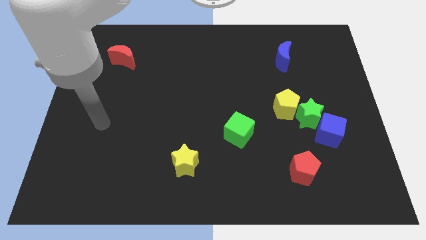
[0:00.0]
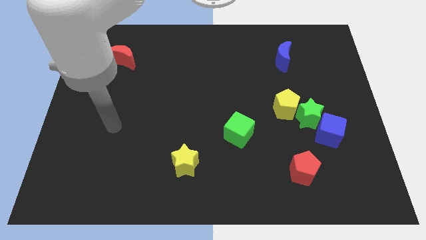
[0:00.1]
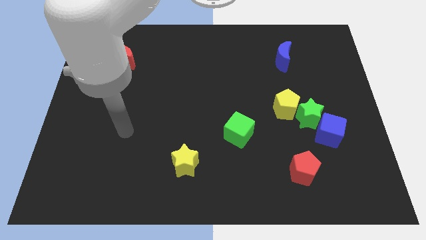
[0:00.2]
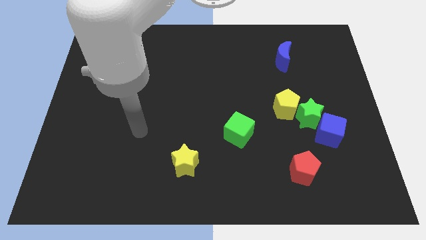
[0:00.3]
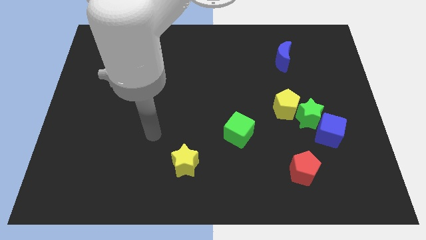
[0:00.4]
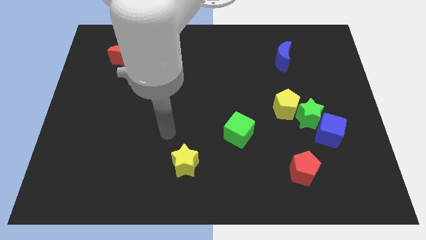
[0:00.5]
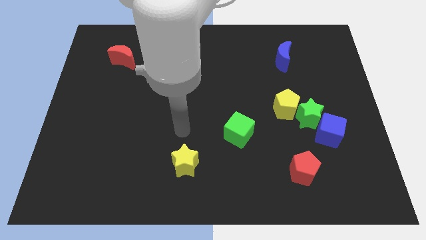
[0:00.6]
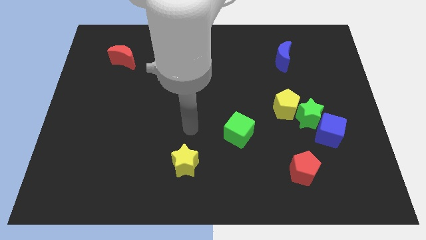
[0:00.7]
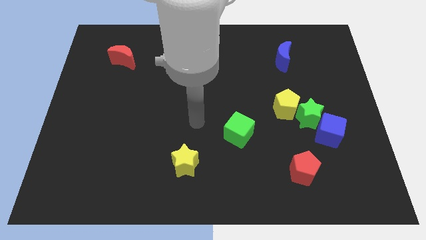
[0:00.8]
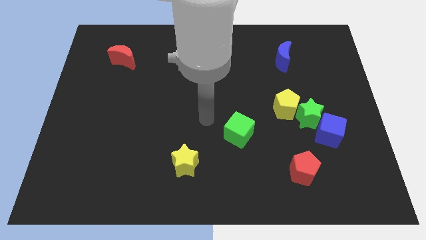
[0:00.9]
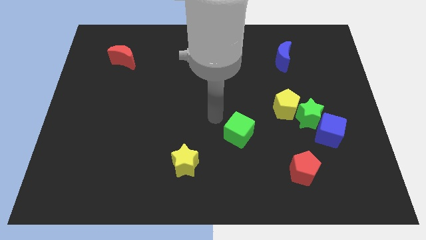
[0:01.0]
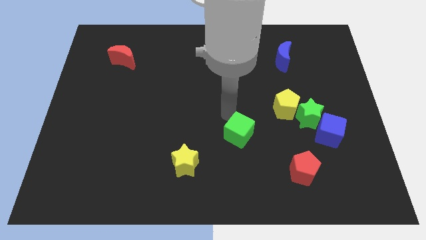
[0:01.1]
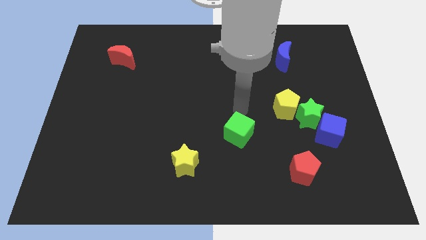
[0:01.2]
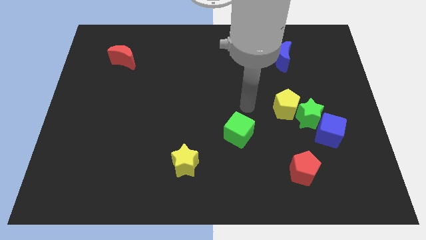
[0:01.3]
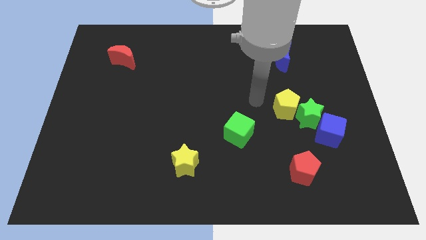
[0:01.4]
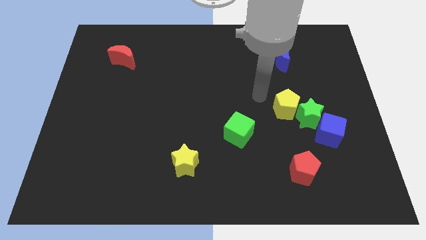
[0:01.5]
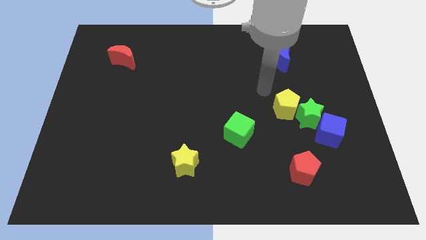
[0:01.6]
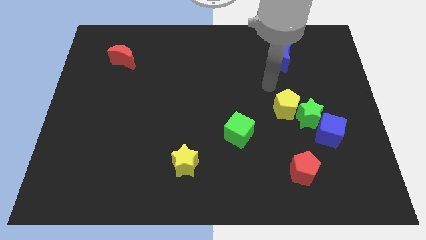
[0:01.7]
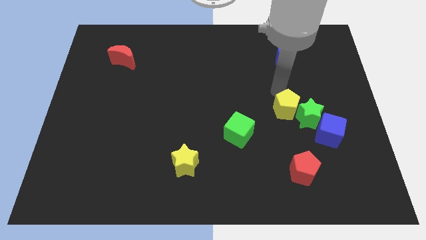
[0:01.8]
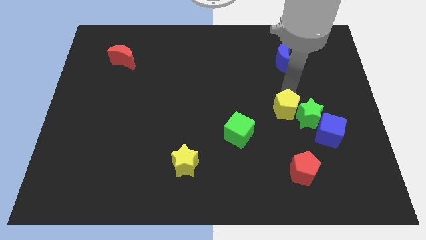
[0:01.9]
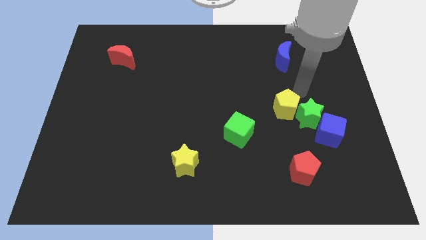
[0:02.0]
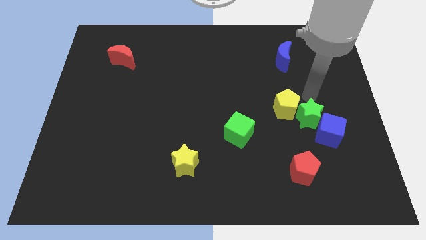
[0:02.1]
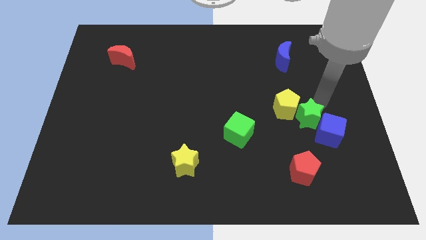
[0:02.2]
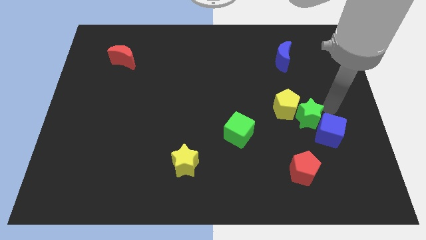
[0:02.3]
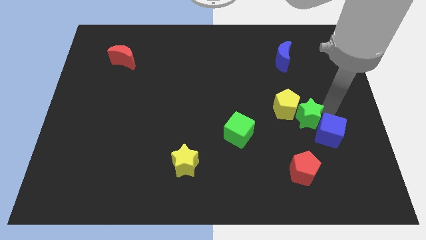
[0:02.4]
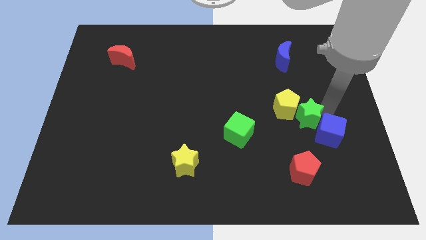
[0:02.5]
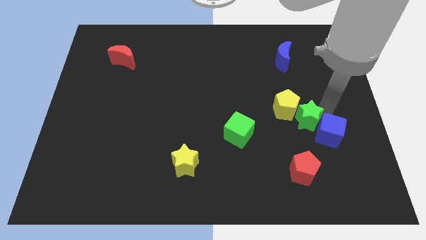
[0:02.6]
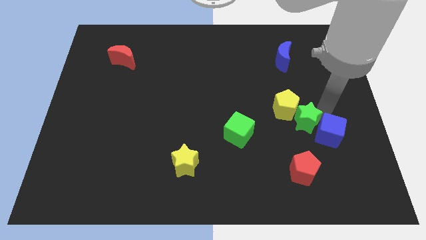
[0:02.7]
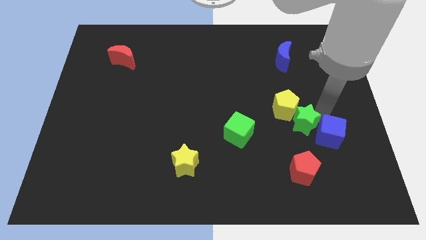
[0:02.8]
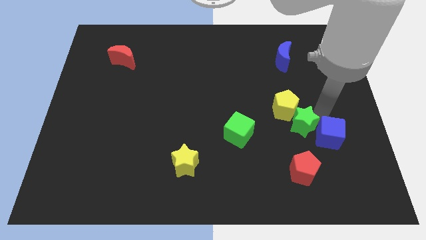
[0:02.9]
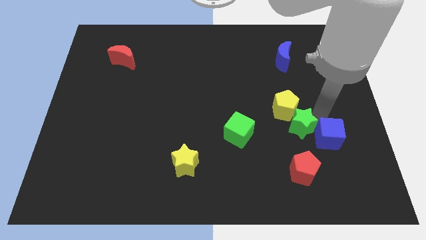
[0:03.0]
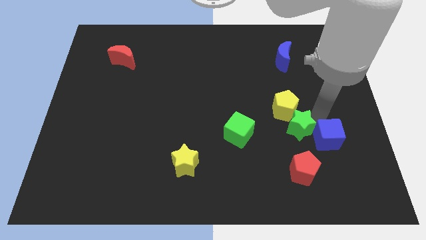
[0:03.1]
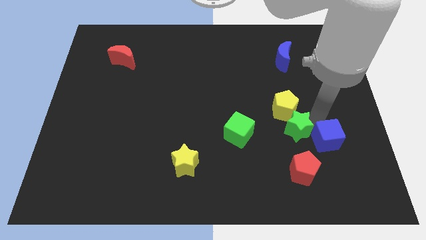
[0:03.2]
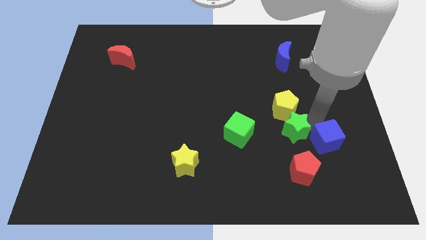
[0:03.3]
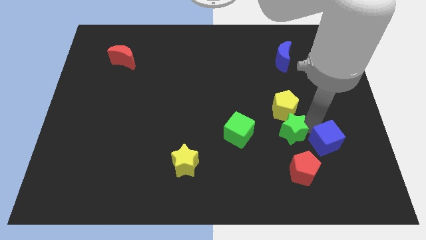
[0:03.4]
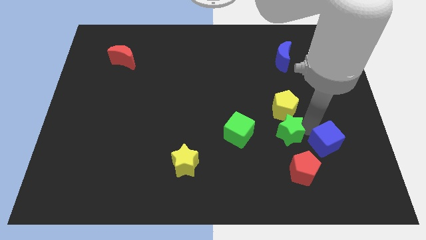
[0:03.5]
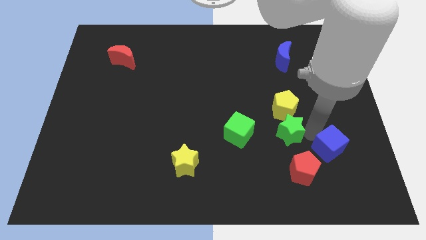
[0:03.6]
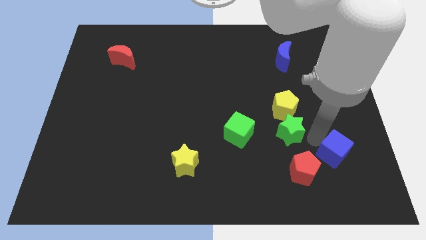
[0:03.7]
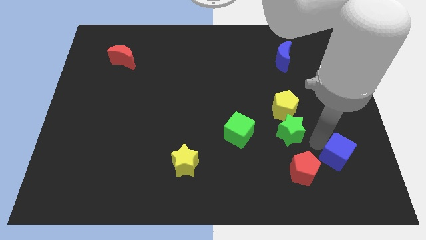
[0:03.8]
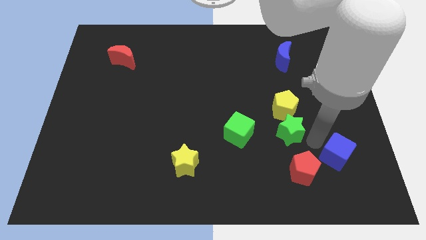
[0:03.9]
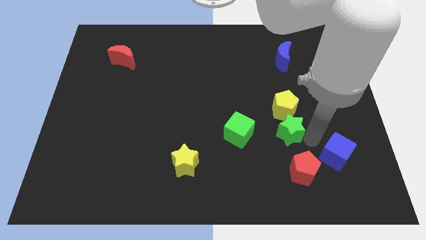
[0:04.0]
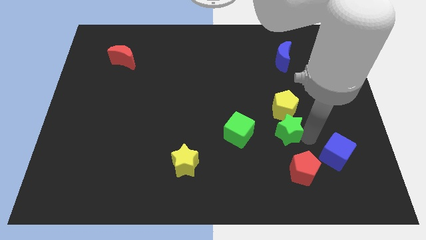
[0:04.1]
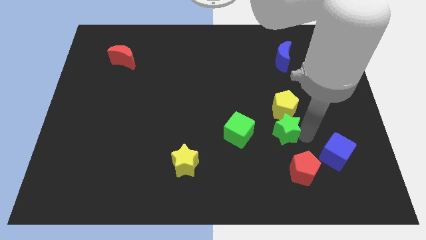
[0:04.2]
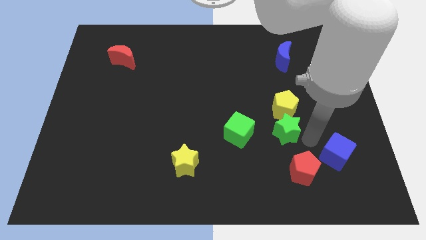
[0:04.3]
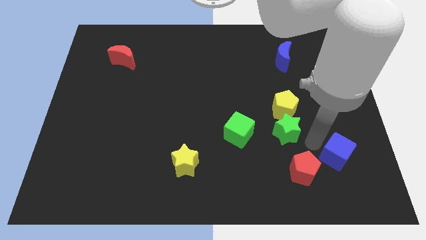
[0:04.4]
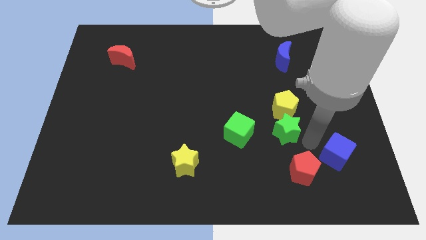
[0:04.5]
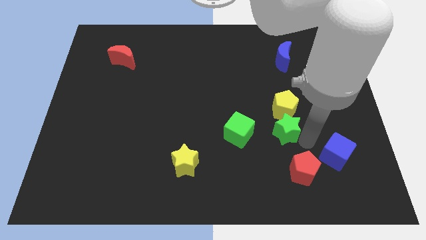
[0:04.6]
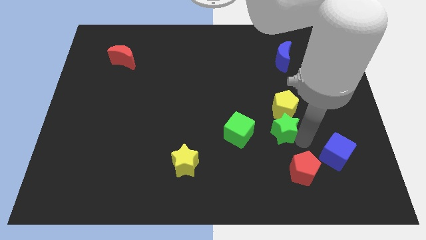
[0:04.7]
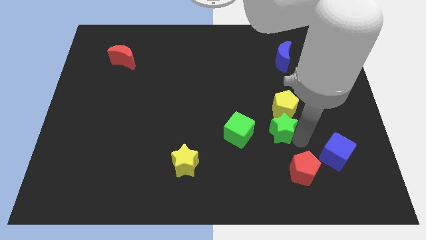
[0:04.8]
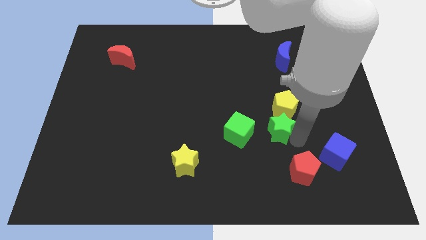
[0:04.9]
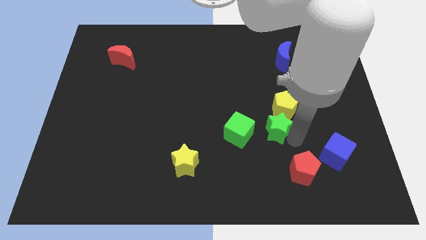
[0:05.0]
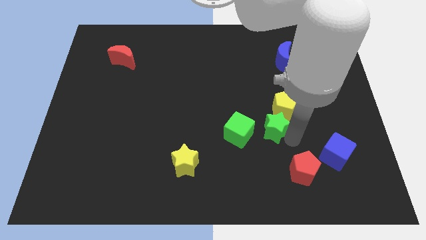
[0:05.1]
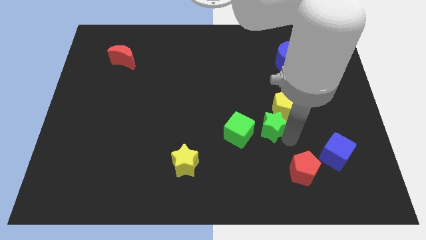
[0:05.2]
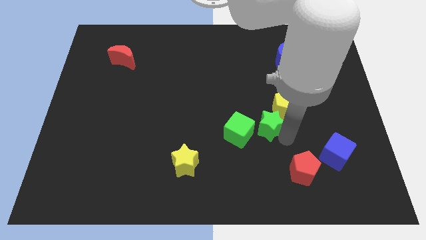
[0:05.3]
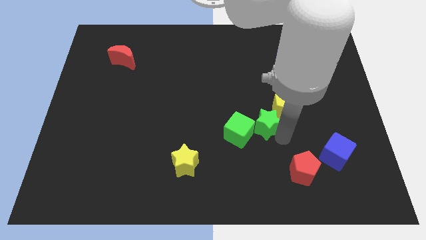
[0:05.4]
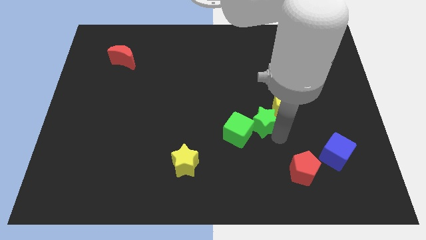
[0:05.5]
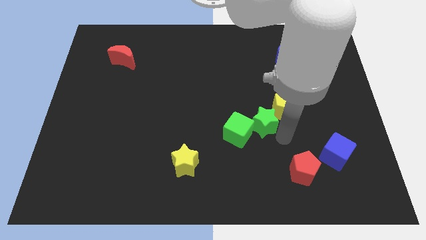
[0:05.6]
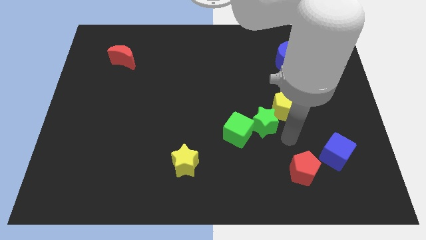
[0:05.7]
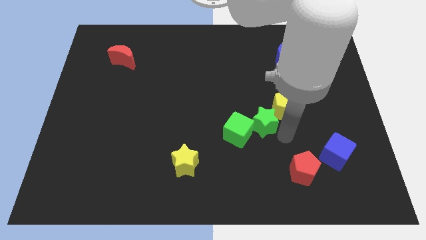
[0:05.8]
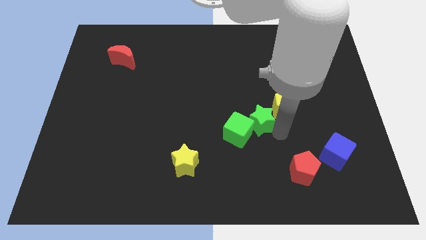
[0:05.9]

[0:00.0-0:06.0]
put the green star to the middle of the board

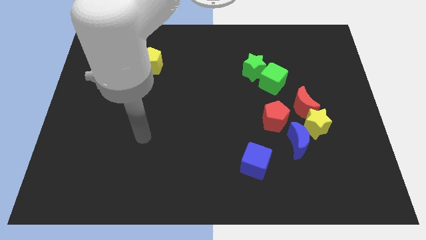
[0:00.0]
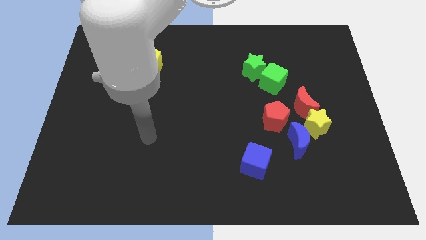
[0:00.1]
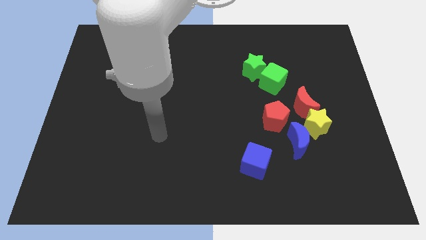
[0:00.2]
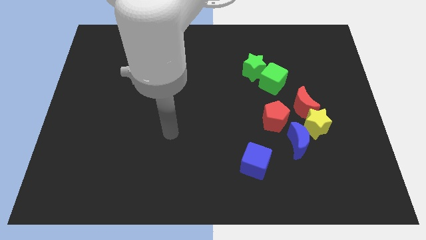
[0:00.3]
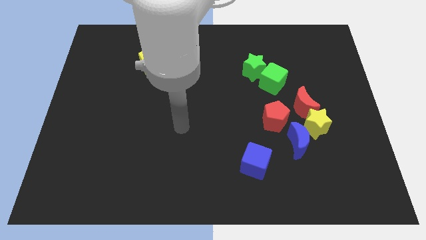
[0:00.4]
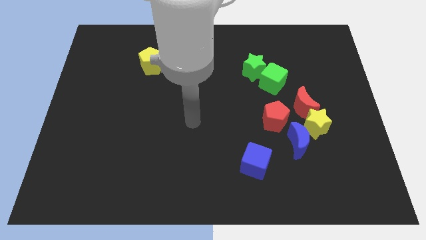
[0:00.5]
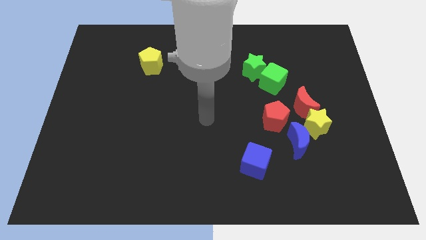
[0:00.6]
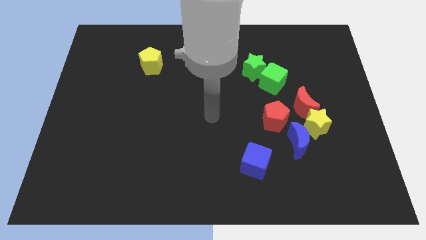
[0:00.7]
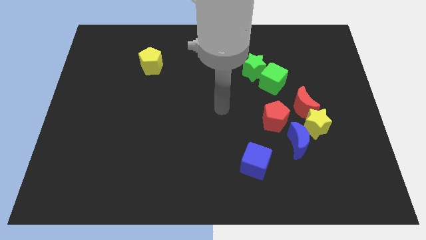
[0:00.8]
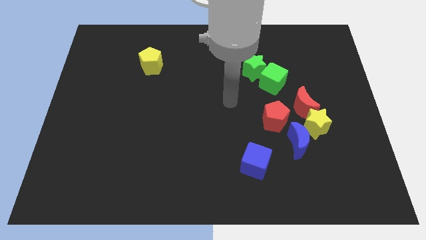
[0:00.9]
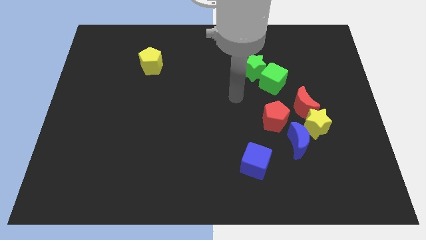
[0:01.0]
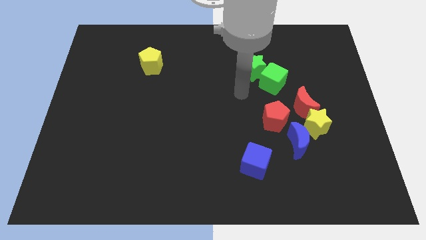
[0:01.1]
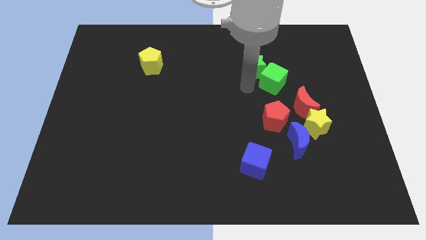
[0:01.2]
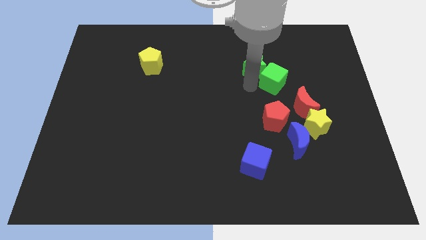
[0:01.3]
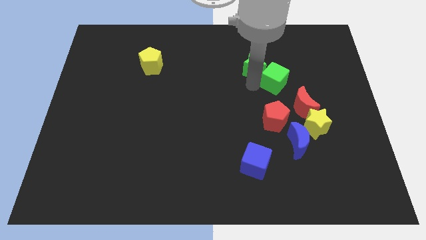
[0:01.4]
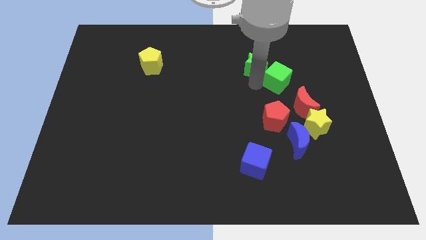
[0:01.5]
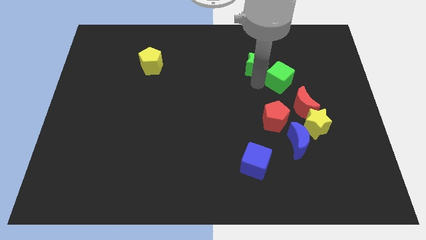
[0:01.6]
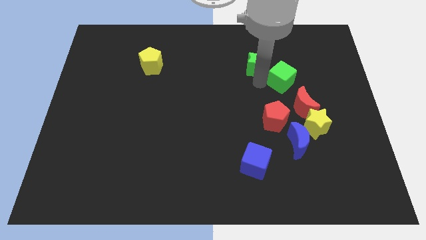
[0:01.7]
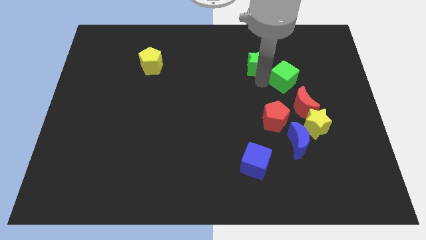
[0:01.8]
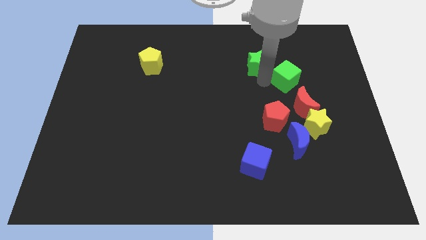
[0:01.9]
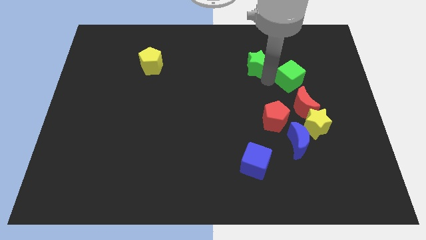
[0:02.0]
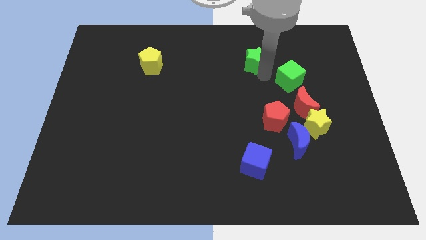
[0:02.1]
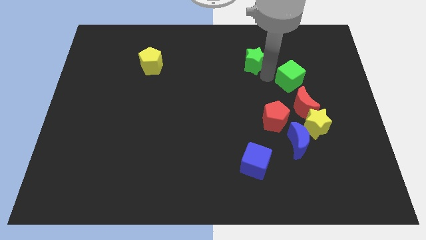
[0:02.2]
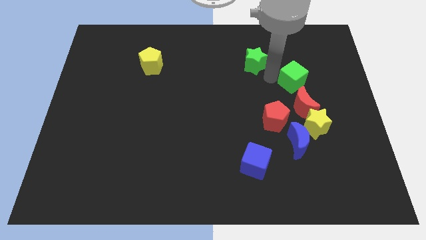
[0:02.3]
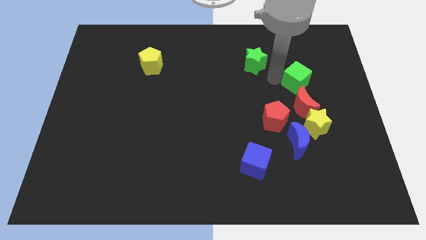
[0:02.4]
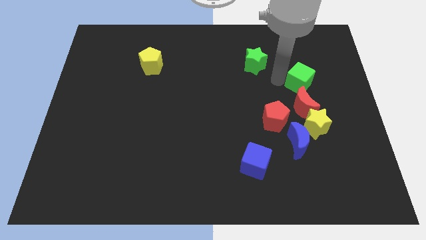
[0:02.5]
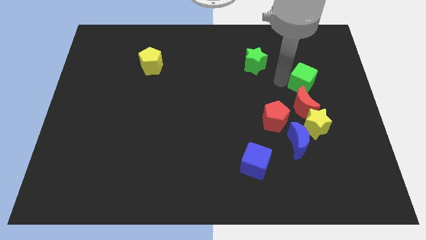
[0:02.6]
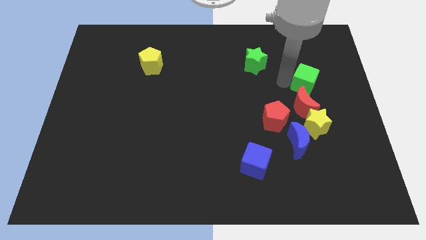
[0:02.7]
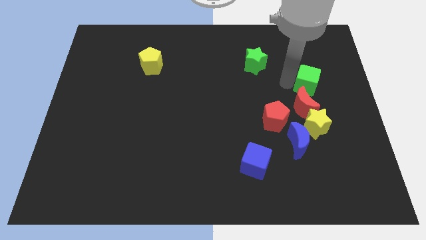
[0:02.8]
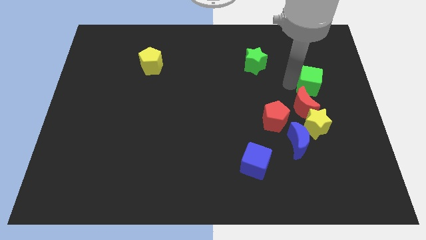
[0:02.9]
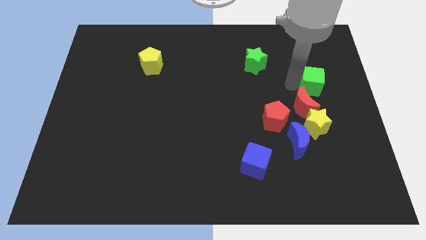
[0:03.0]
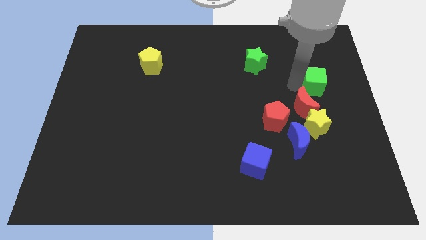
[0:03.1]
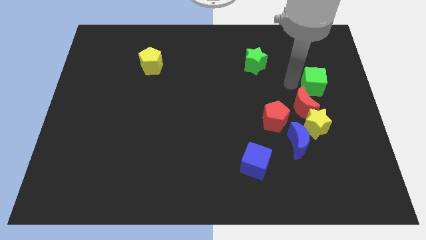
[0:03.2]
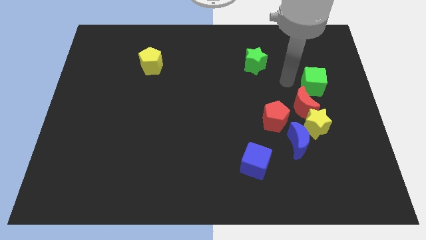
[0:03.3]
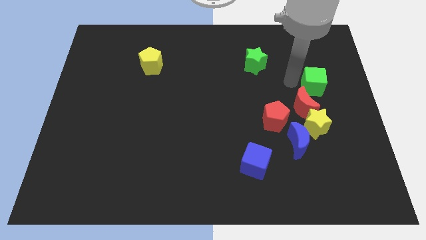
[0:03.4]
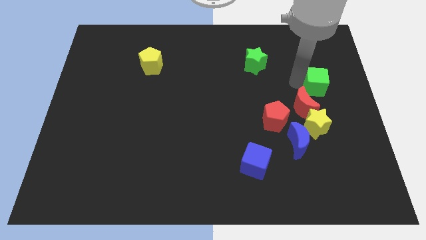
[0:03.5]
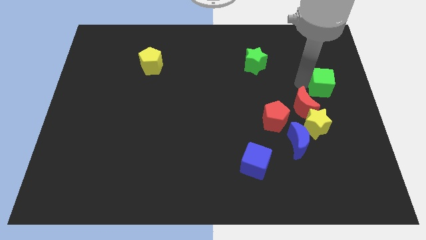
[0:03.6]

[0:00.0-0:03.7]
push the green cube to the right side
